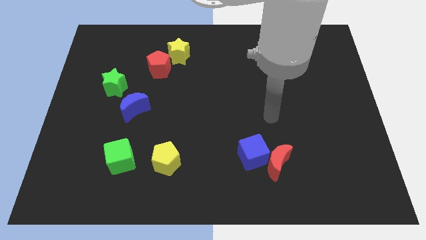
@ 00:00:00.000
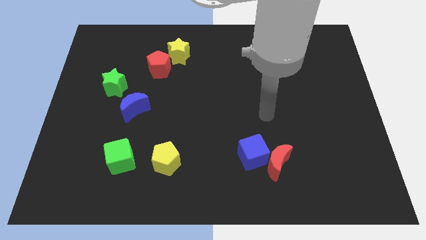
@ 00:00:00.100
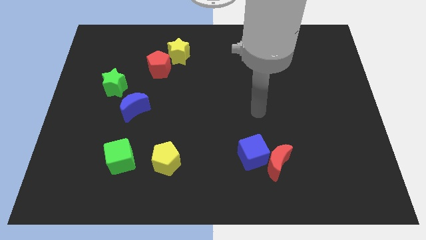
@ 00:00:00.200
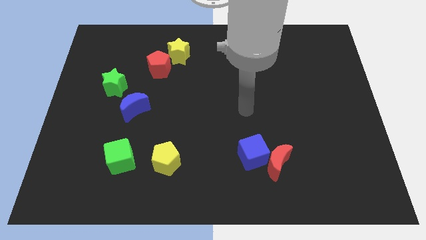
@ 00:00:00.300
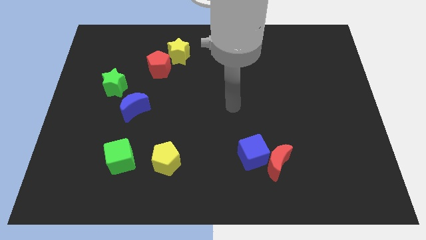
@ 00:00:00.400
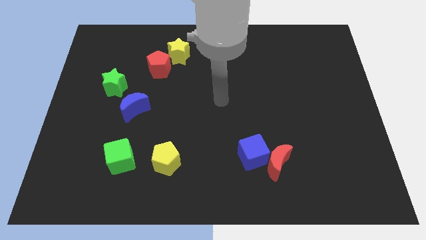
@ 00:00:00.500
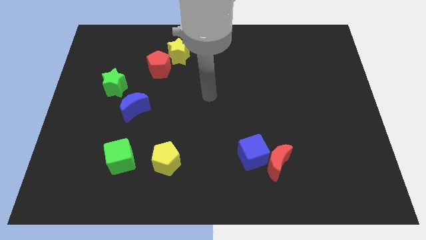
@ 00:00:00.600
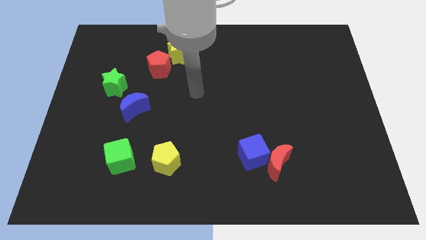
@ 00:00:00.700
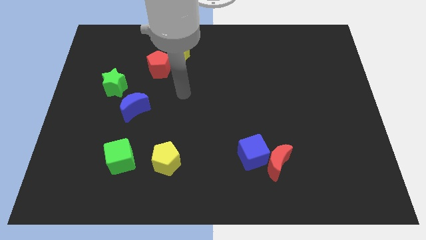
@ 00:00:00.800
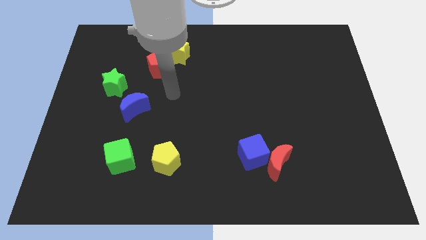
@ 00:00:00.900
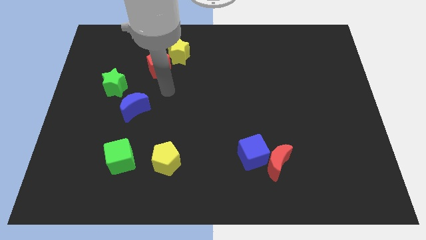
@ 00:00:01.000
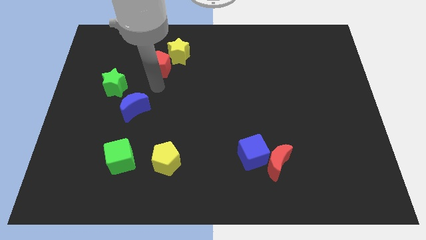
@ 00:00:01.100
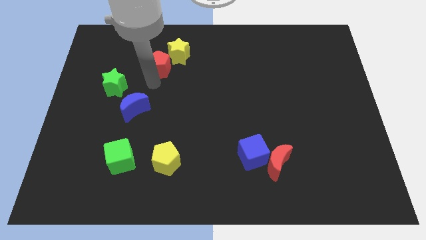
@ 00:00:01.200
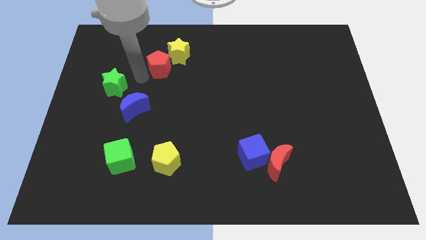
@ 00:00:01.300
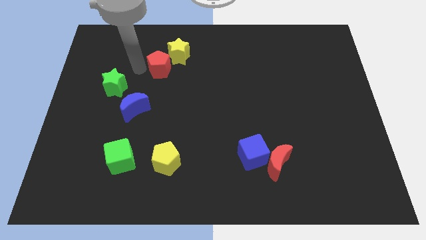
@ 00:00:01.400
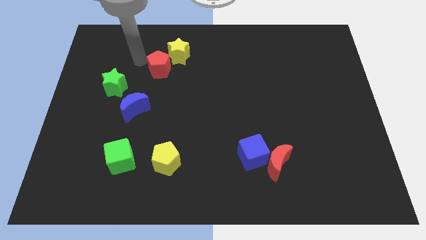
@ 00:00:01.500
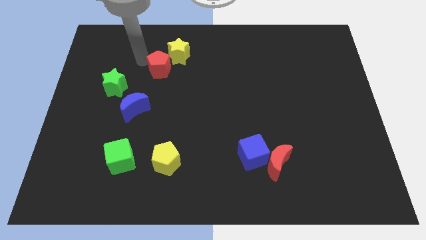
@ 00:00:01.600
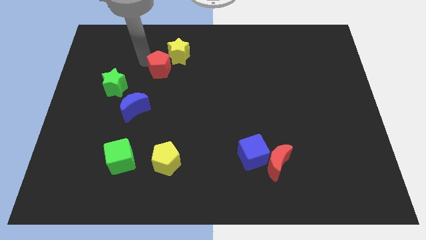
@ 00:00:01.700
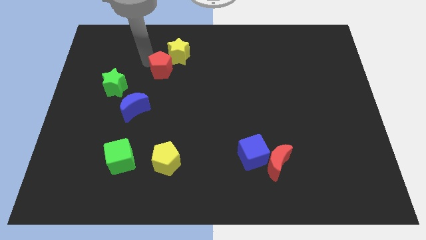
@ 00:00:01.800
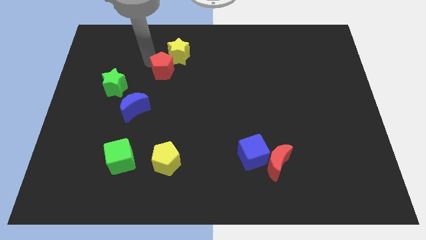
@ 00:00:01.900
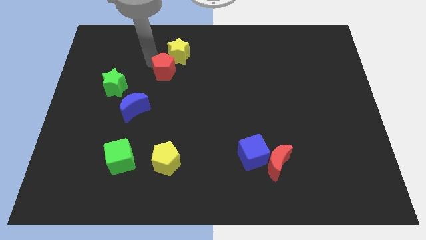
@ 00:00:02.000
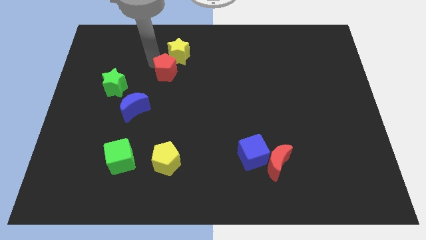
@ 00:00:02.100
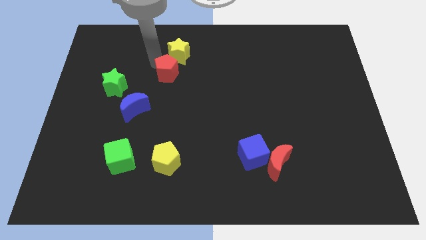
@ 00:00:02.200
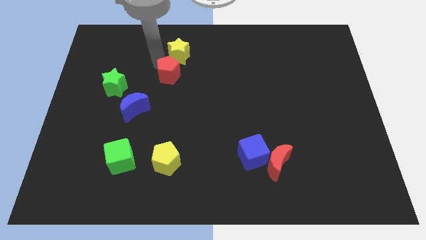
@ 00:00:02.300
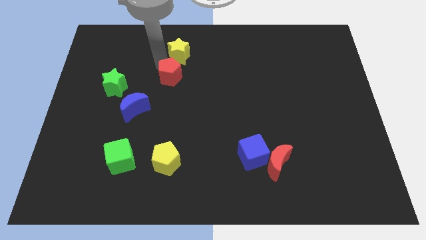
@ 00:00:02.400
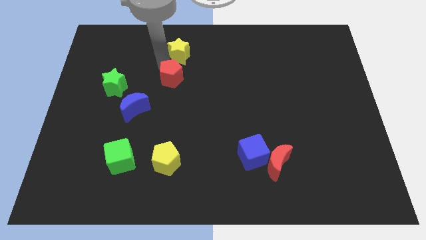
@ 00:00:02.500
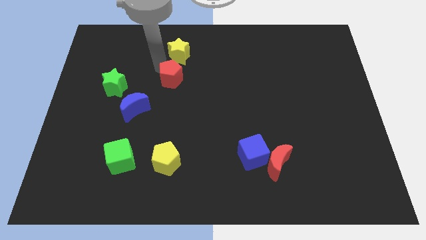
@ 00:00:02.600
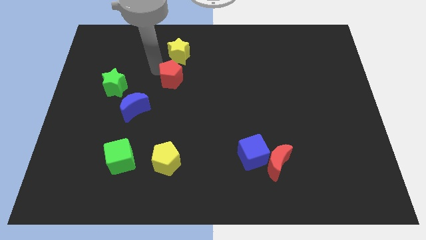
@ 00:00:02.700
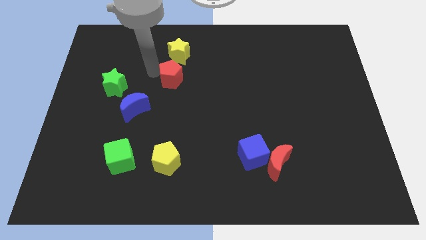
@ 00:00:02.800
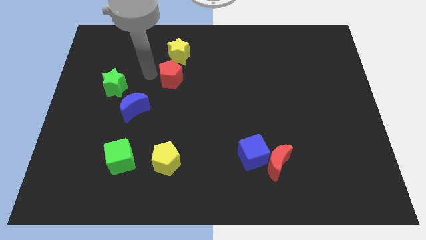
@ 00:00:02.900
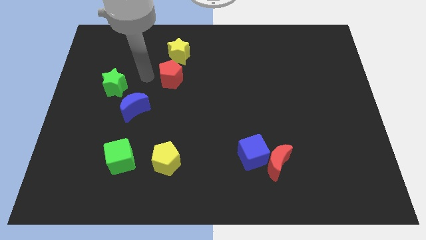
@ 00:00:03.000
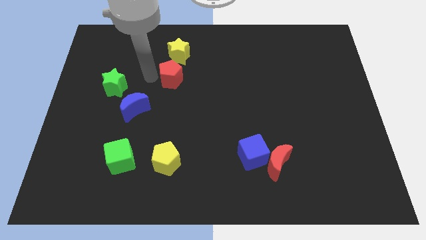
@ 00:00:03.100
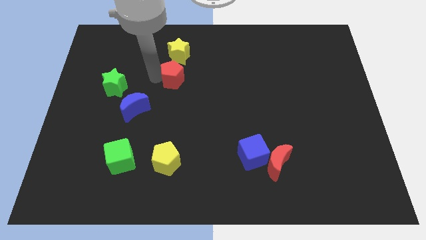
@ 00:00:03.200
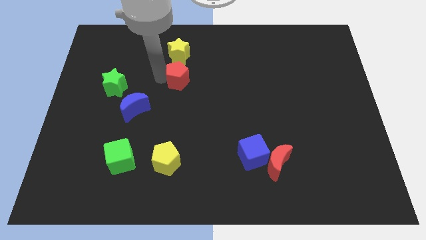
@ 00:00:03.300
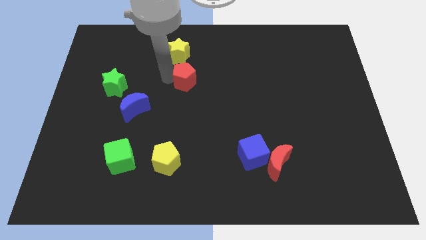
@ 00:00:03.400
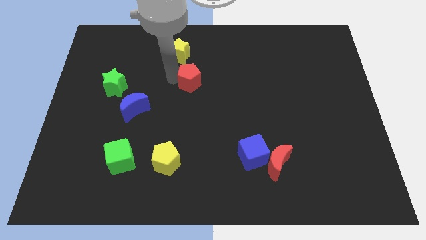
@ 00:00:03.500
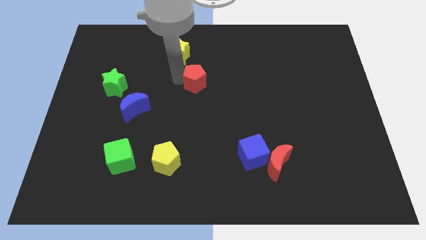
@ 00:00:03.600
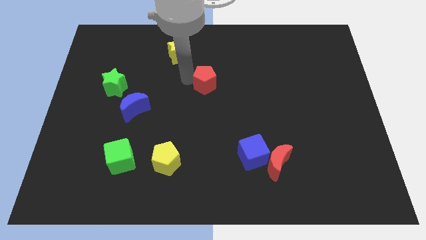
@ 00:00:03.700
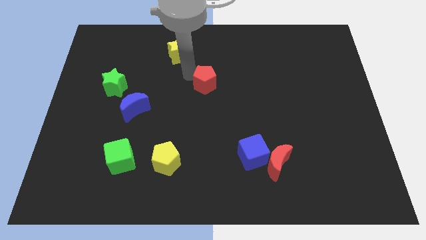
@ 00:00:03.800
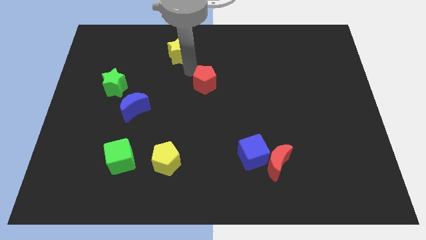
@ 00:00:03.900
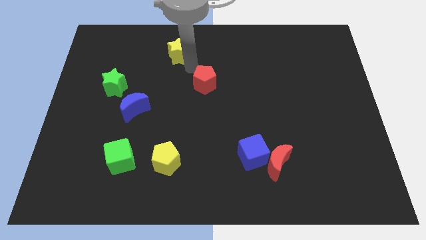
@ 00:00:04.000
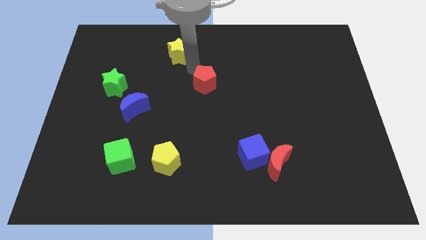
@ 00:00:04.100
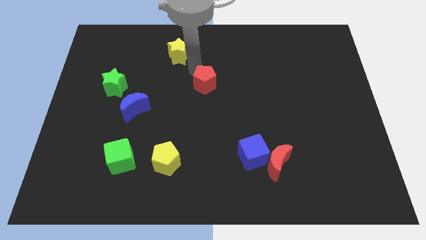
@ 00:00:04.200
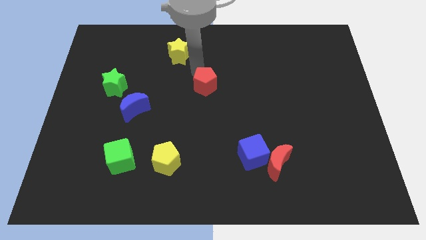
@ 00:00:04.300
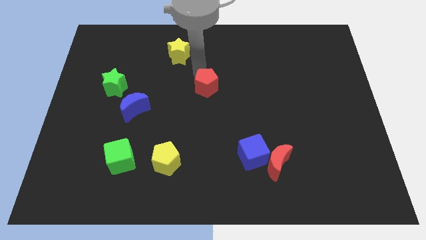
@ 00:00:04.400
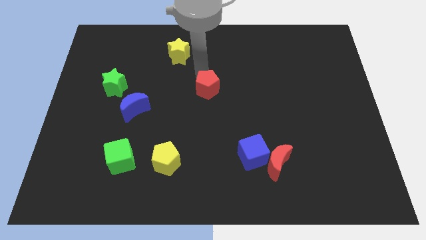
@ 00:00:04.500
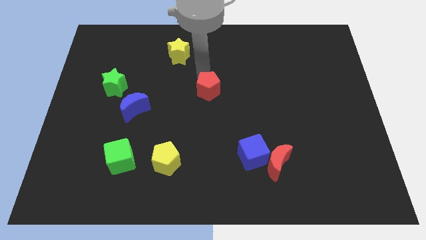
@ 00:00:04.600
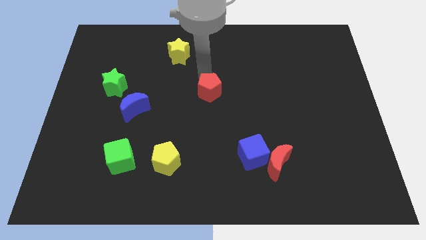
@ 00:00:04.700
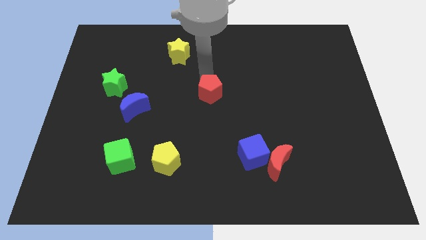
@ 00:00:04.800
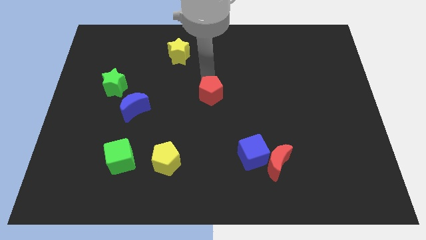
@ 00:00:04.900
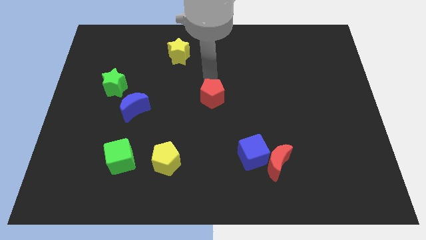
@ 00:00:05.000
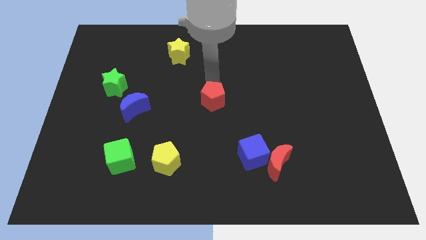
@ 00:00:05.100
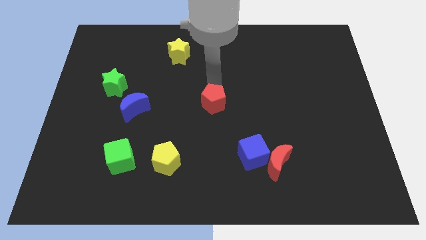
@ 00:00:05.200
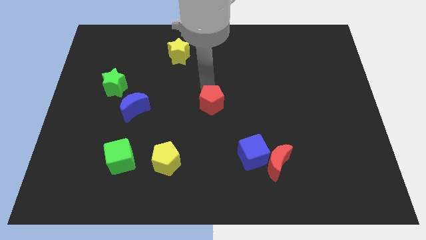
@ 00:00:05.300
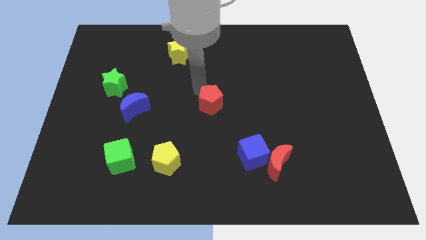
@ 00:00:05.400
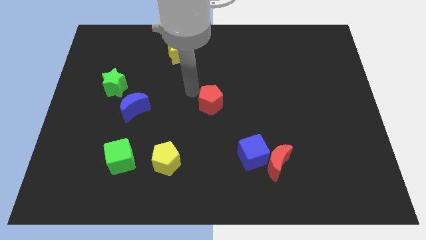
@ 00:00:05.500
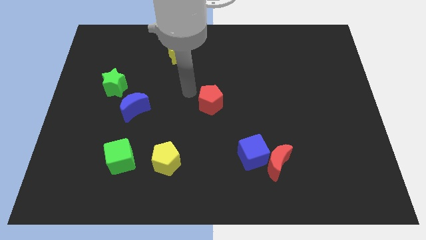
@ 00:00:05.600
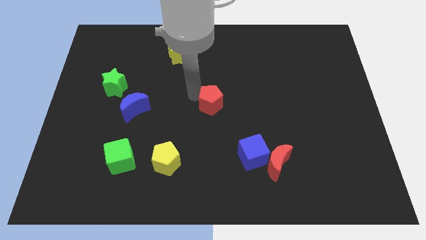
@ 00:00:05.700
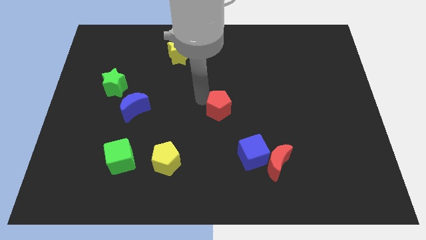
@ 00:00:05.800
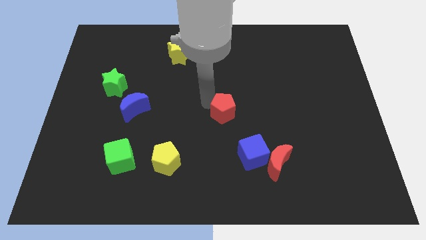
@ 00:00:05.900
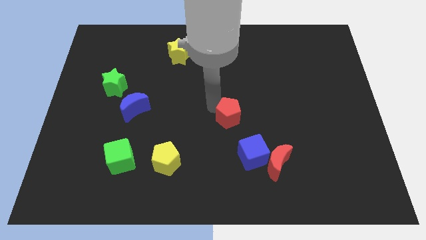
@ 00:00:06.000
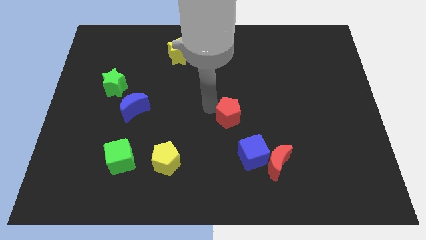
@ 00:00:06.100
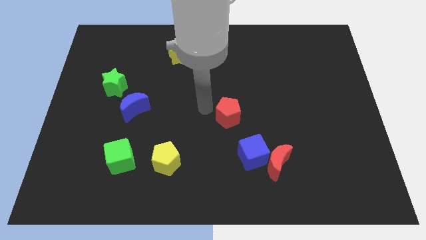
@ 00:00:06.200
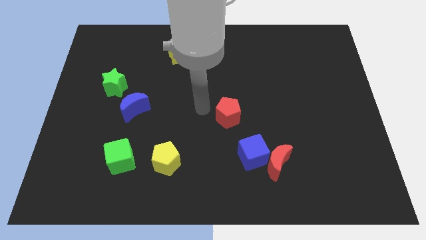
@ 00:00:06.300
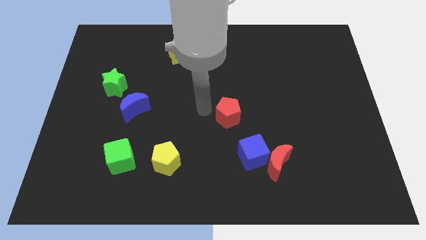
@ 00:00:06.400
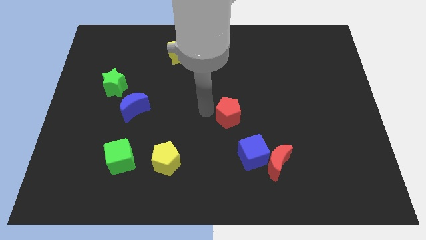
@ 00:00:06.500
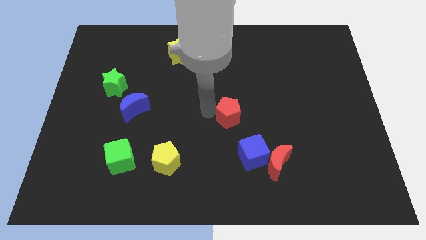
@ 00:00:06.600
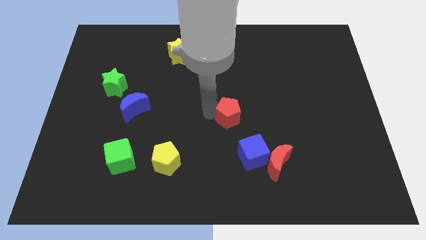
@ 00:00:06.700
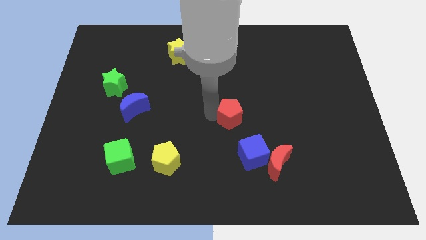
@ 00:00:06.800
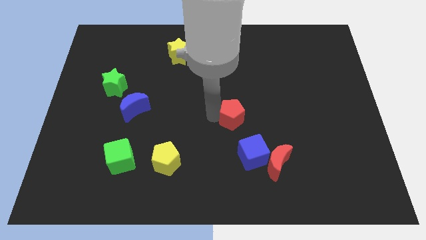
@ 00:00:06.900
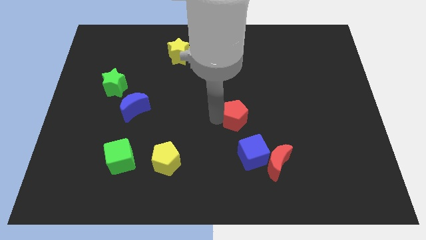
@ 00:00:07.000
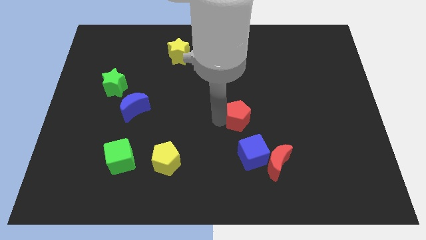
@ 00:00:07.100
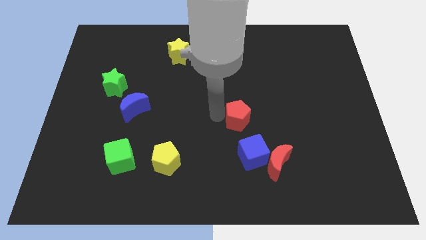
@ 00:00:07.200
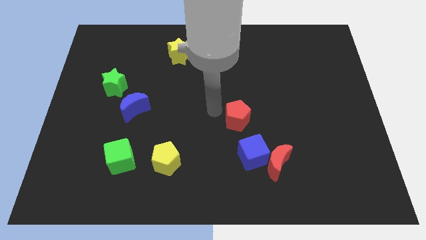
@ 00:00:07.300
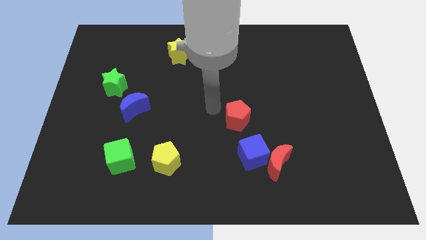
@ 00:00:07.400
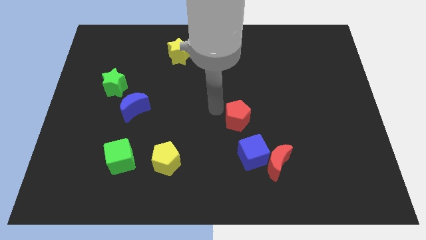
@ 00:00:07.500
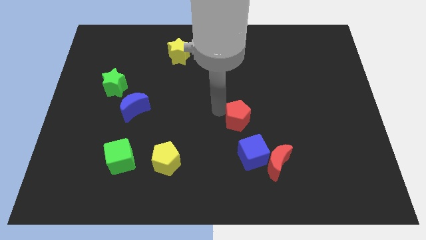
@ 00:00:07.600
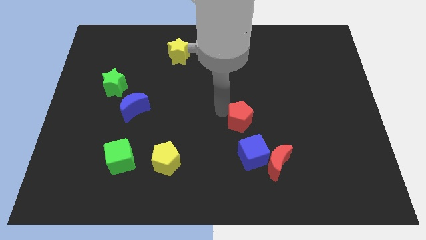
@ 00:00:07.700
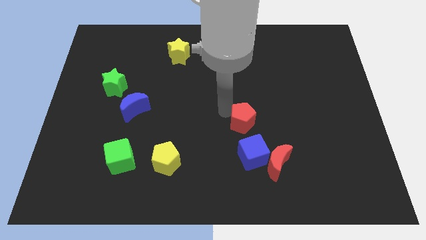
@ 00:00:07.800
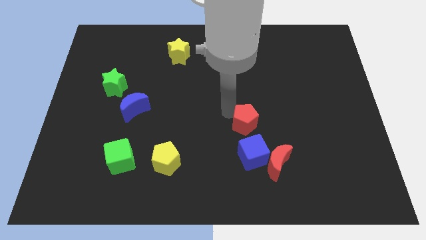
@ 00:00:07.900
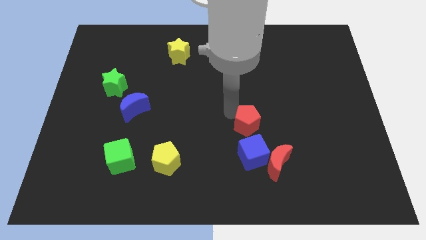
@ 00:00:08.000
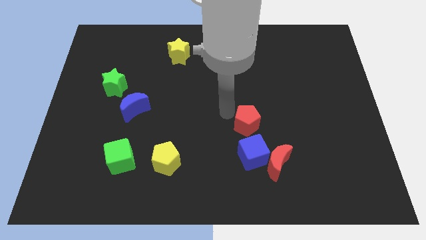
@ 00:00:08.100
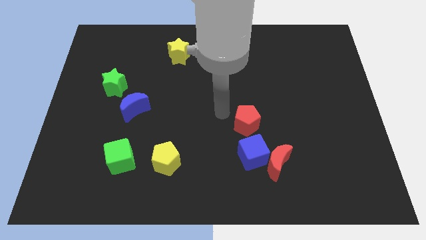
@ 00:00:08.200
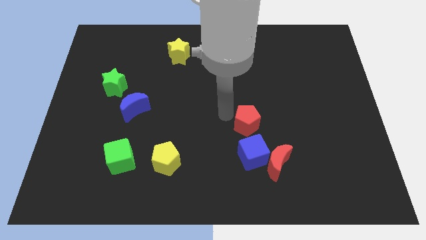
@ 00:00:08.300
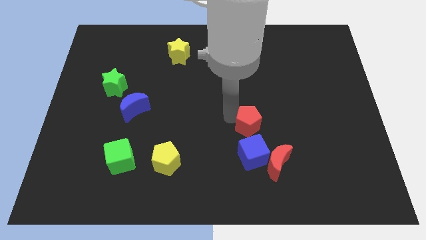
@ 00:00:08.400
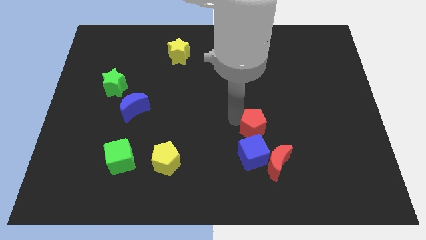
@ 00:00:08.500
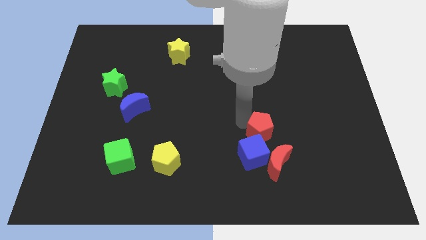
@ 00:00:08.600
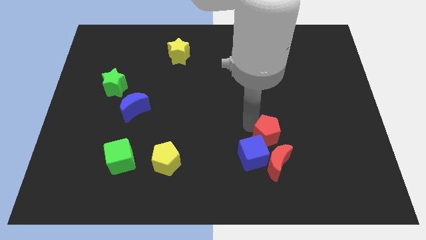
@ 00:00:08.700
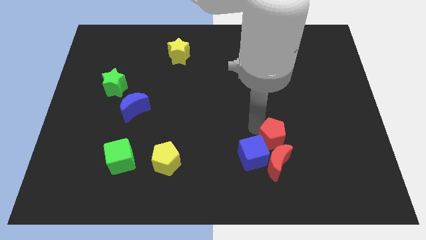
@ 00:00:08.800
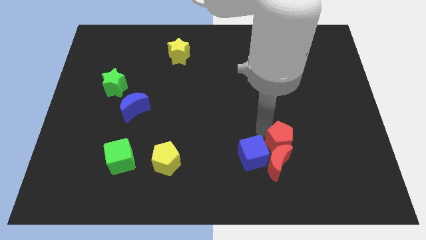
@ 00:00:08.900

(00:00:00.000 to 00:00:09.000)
move the red pentagon towards the red moon
